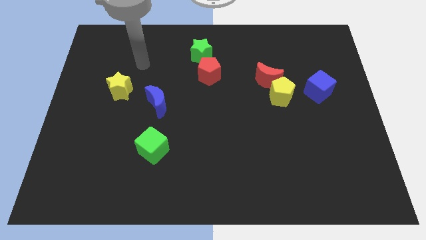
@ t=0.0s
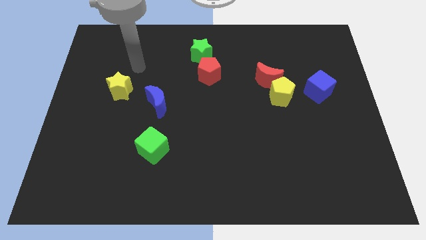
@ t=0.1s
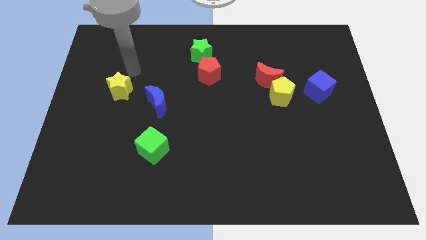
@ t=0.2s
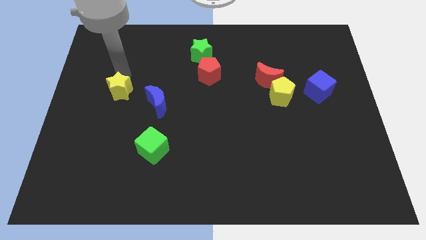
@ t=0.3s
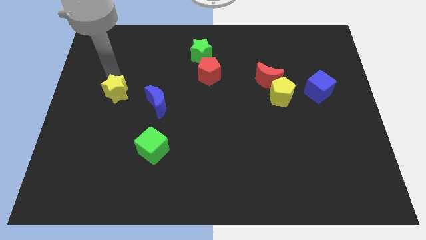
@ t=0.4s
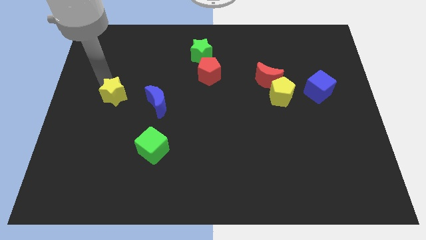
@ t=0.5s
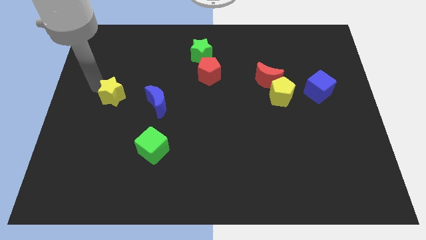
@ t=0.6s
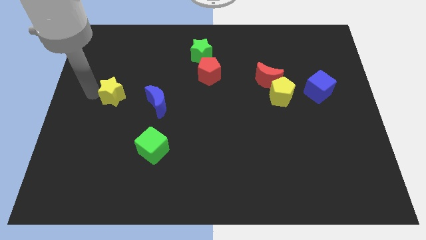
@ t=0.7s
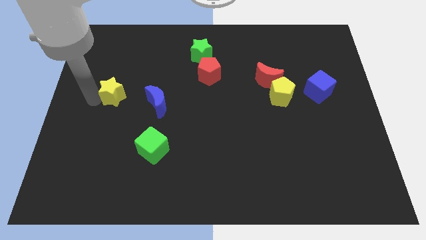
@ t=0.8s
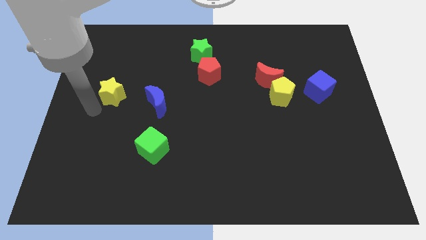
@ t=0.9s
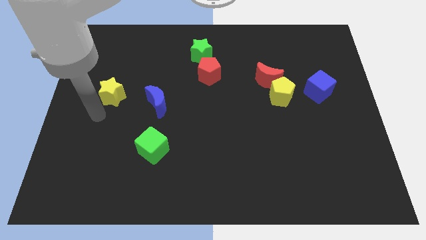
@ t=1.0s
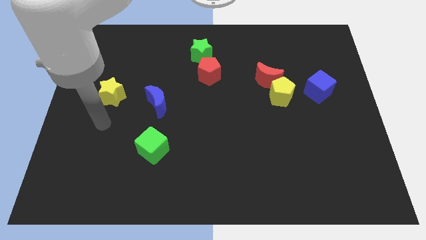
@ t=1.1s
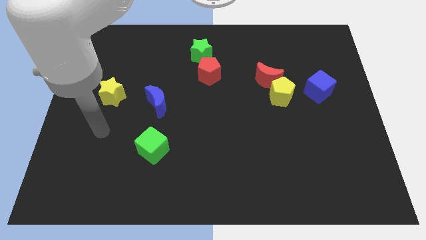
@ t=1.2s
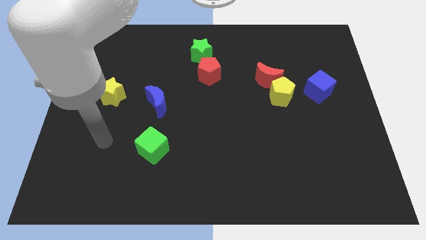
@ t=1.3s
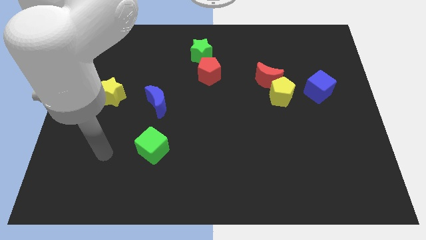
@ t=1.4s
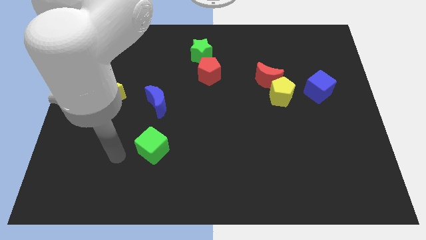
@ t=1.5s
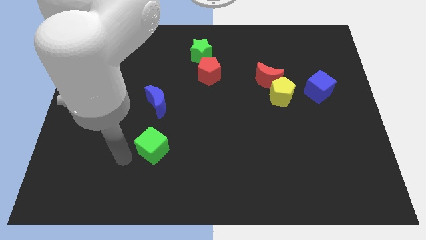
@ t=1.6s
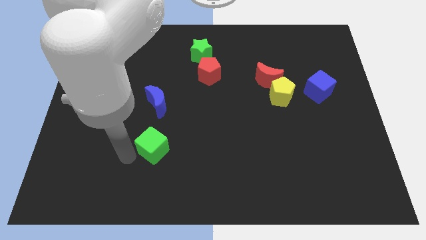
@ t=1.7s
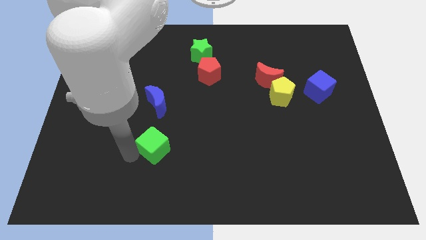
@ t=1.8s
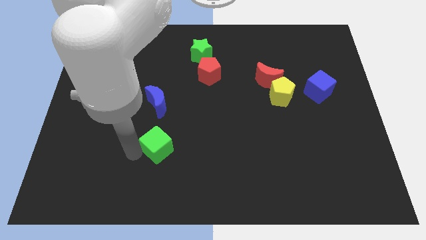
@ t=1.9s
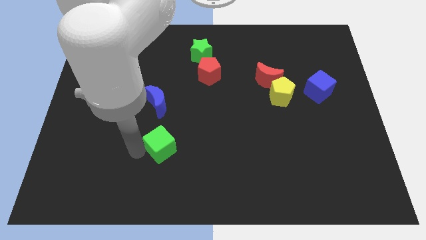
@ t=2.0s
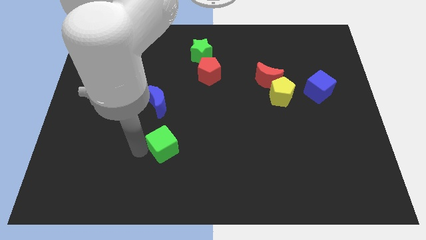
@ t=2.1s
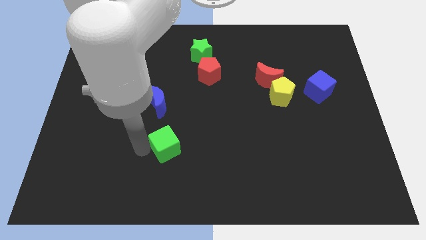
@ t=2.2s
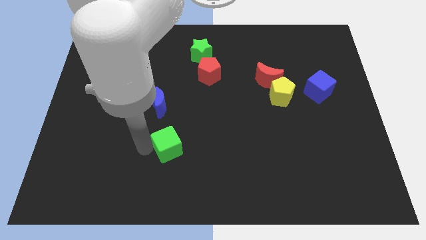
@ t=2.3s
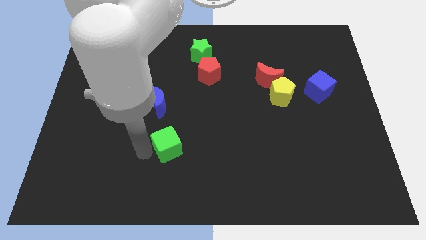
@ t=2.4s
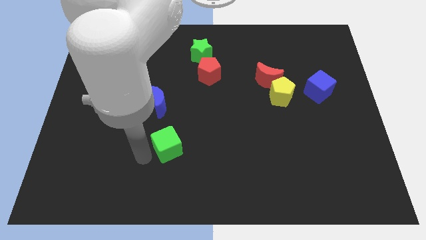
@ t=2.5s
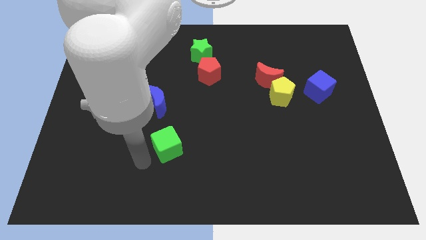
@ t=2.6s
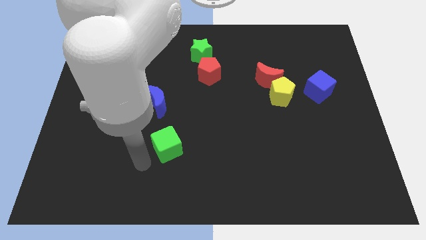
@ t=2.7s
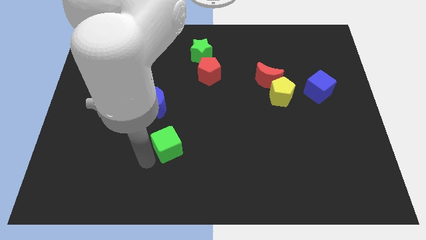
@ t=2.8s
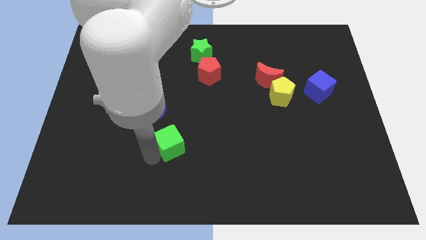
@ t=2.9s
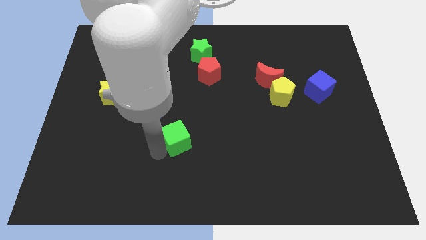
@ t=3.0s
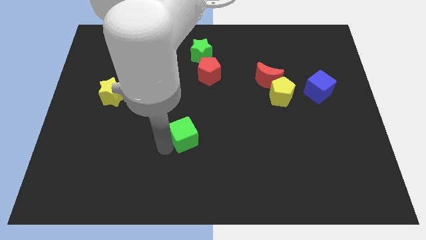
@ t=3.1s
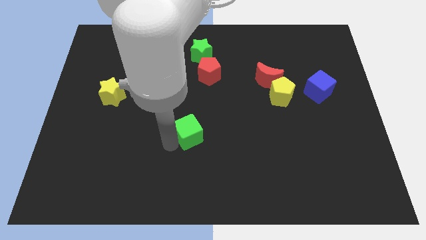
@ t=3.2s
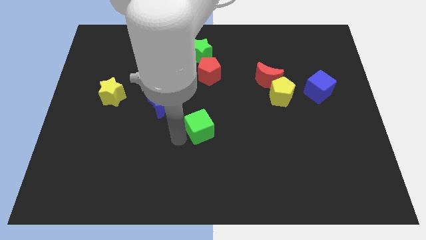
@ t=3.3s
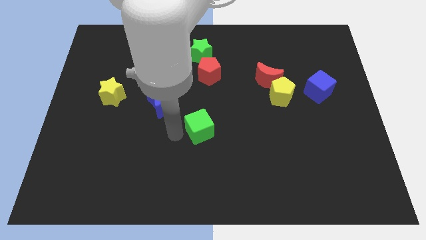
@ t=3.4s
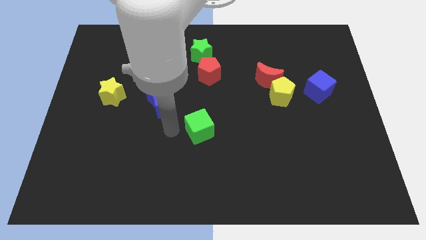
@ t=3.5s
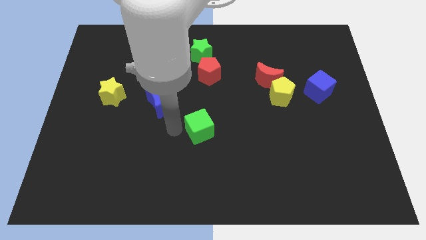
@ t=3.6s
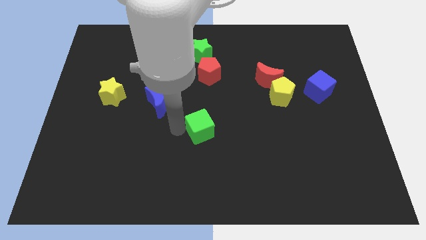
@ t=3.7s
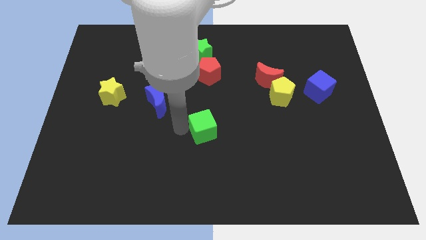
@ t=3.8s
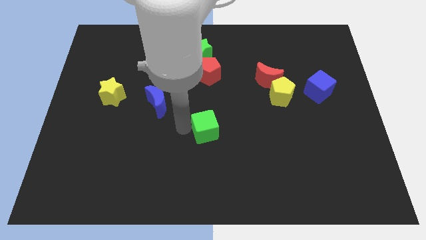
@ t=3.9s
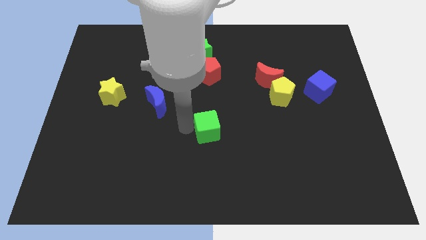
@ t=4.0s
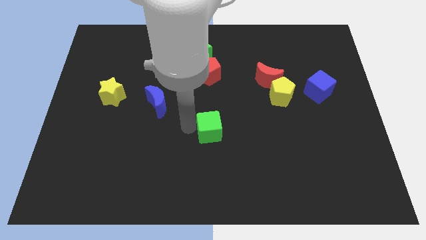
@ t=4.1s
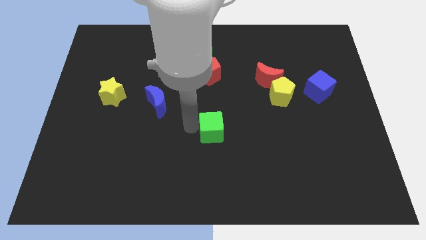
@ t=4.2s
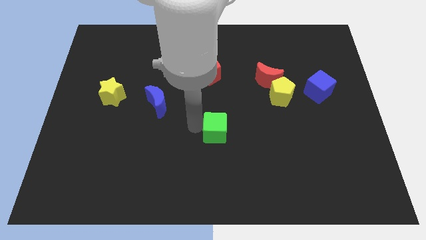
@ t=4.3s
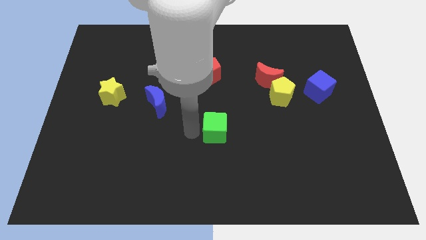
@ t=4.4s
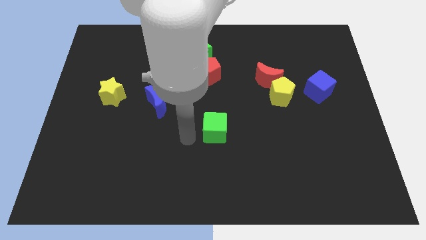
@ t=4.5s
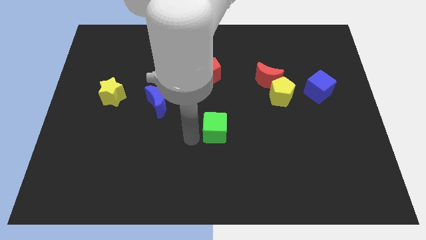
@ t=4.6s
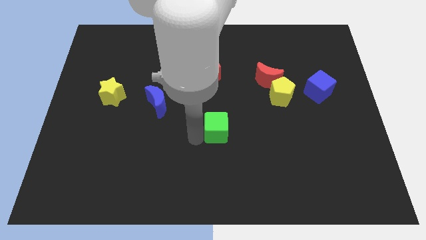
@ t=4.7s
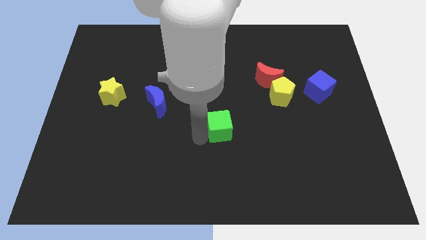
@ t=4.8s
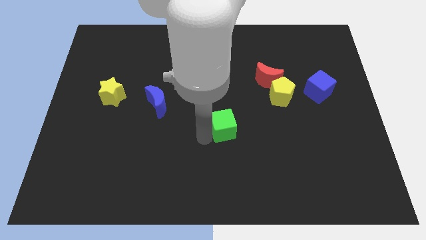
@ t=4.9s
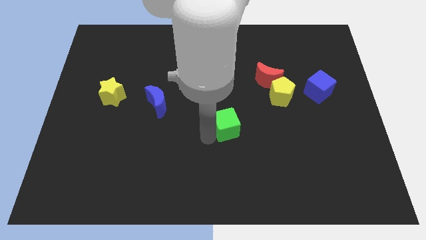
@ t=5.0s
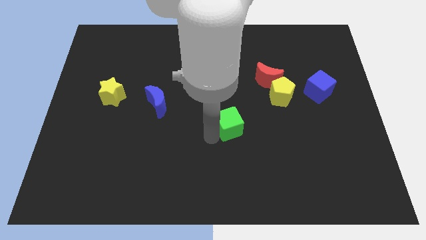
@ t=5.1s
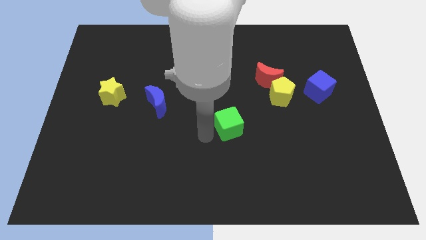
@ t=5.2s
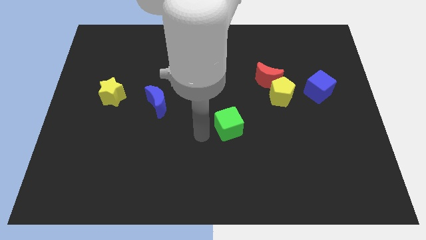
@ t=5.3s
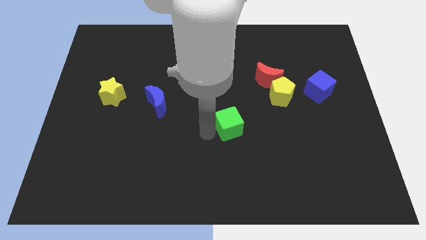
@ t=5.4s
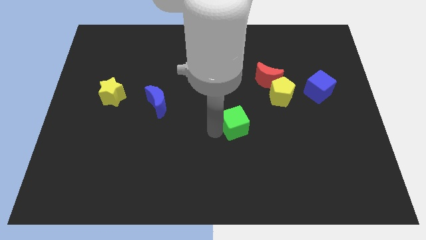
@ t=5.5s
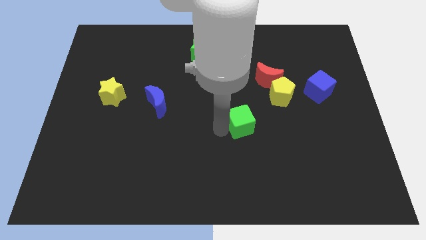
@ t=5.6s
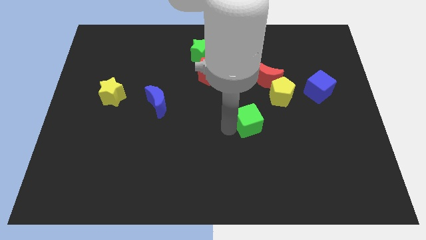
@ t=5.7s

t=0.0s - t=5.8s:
slide the green cube to the bottom left of the yellow pentagon

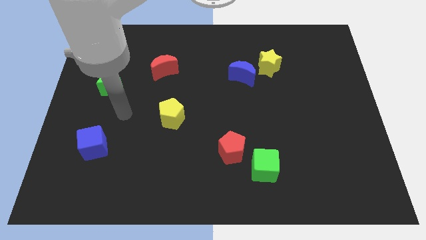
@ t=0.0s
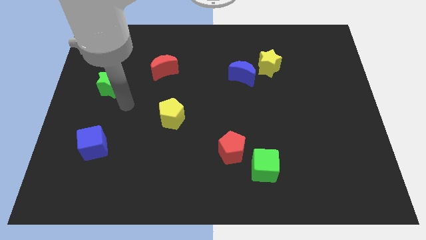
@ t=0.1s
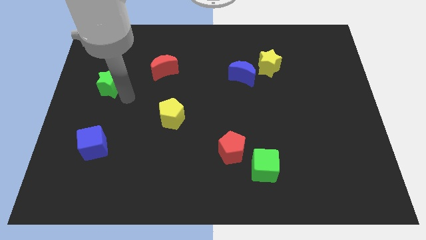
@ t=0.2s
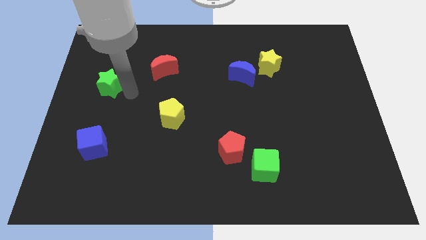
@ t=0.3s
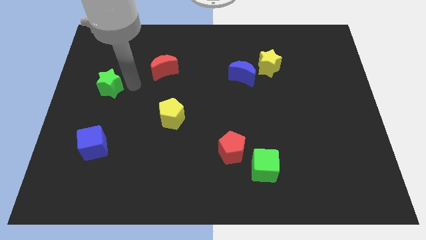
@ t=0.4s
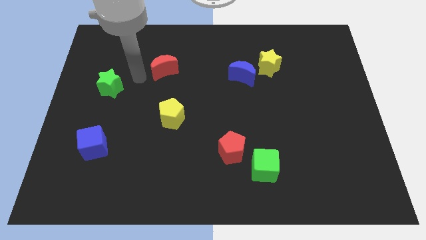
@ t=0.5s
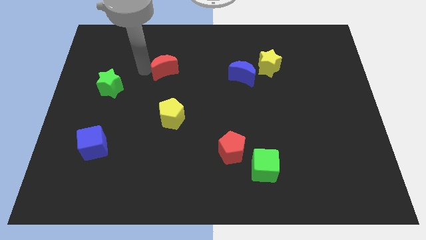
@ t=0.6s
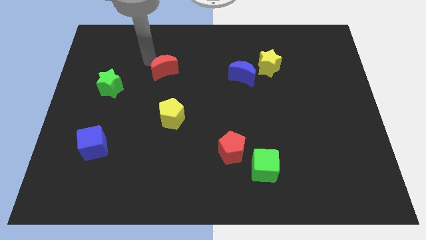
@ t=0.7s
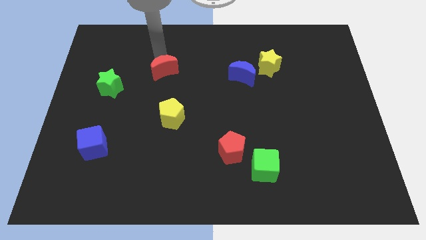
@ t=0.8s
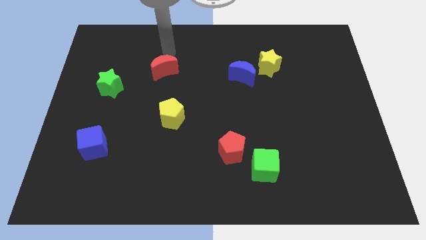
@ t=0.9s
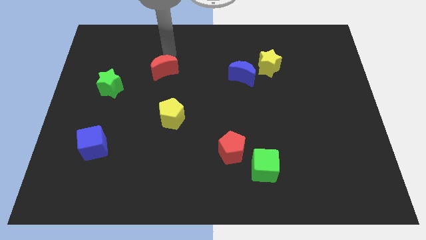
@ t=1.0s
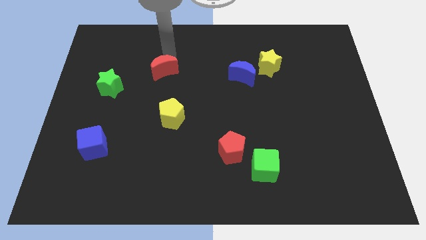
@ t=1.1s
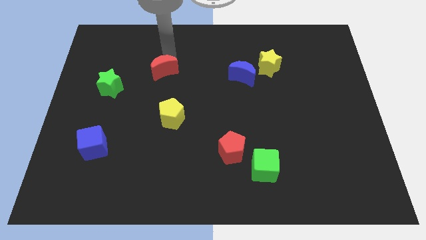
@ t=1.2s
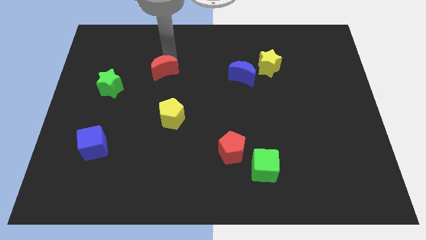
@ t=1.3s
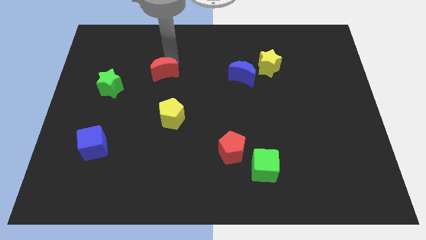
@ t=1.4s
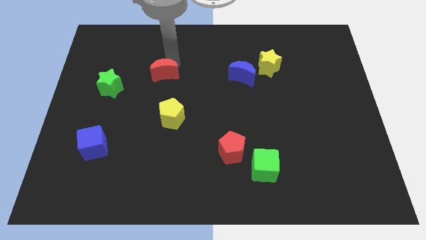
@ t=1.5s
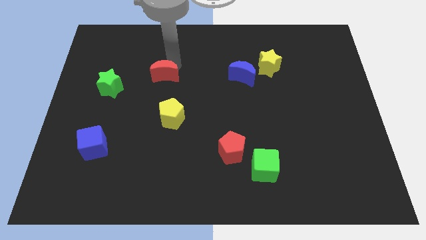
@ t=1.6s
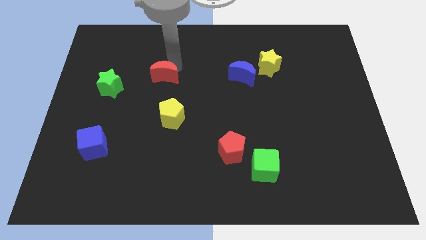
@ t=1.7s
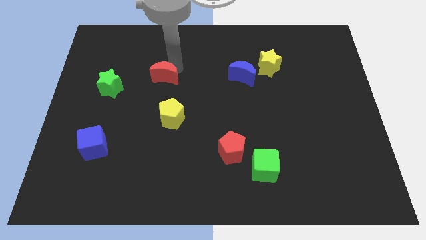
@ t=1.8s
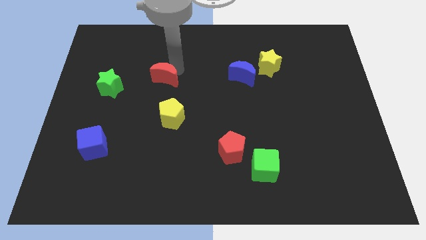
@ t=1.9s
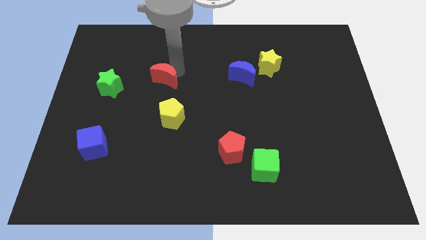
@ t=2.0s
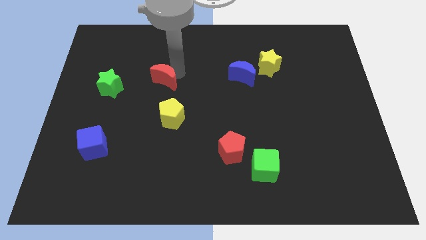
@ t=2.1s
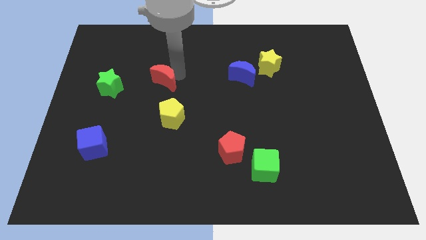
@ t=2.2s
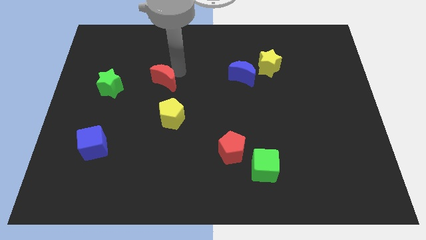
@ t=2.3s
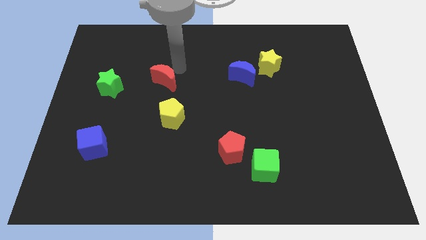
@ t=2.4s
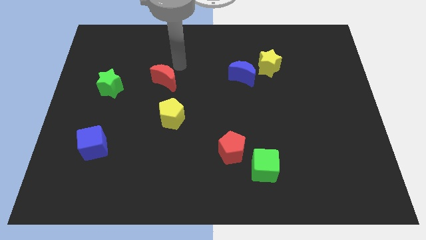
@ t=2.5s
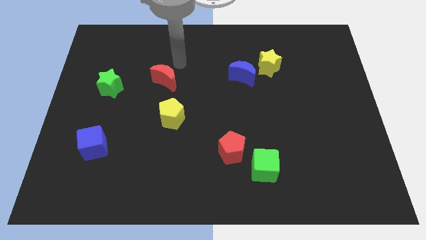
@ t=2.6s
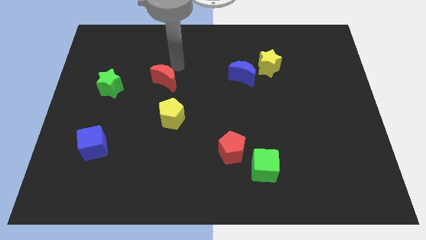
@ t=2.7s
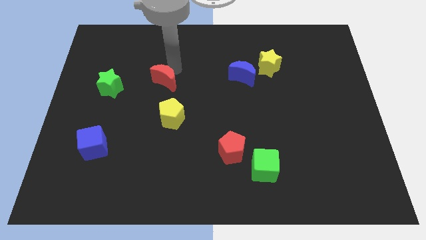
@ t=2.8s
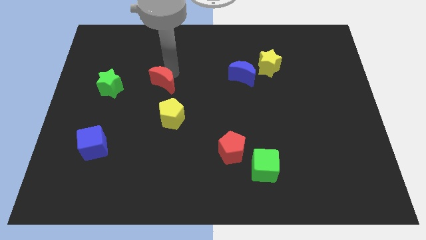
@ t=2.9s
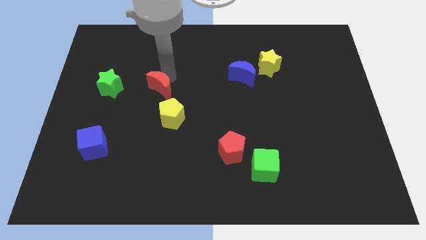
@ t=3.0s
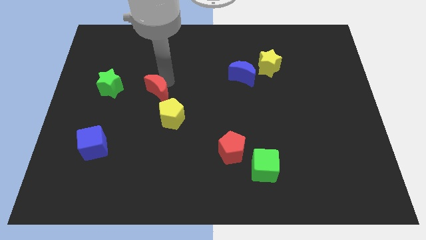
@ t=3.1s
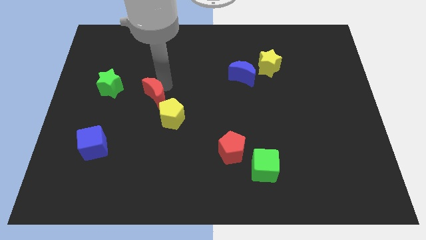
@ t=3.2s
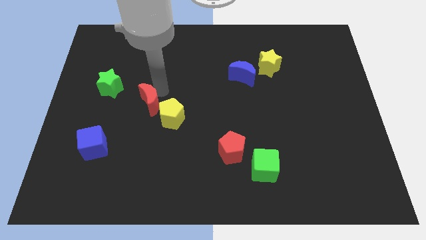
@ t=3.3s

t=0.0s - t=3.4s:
move the red moon just left of the yellow pentagon
